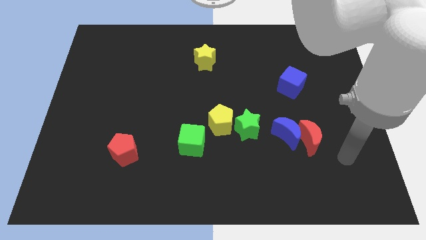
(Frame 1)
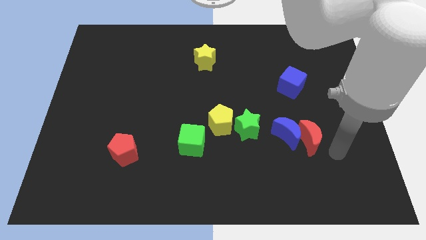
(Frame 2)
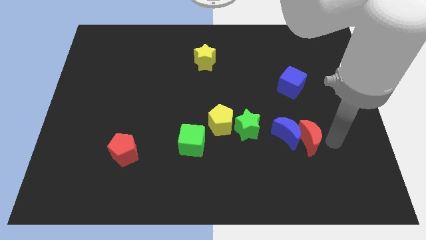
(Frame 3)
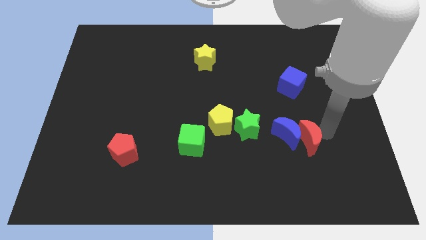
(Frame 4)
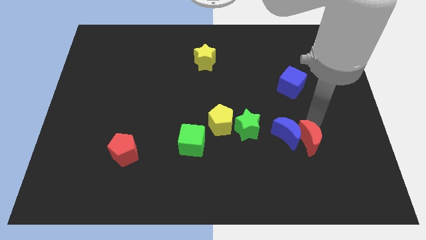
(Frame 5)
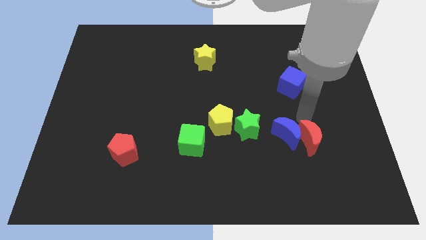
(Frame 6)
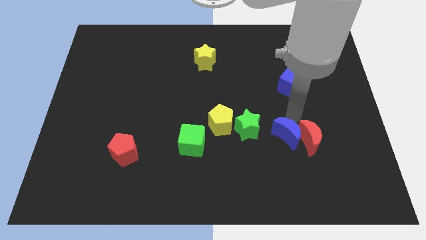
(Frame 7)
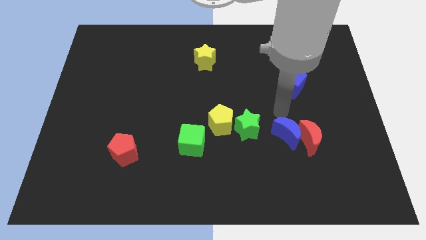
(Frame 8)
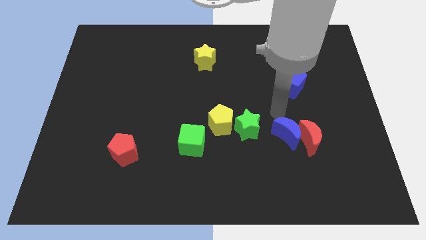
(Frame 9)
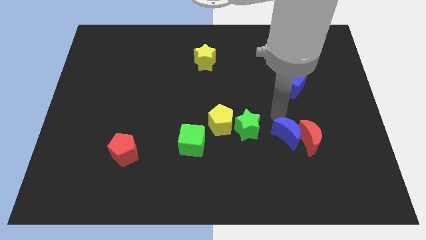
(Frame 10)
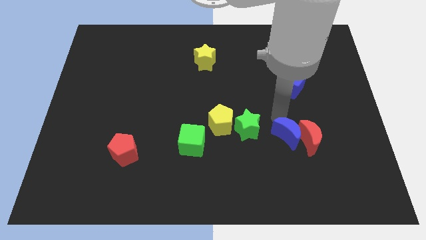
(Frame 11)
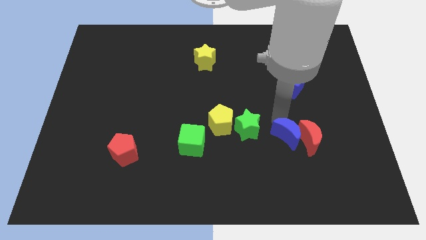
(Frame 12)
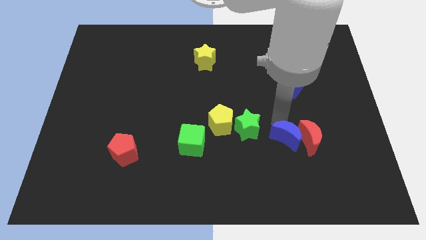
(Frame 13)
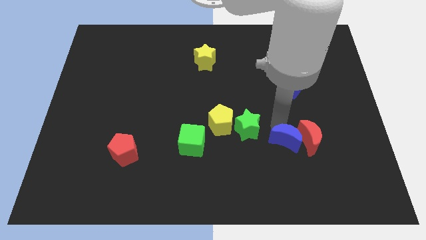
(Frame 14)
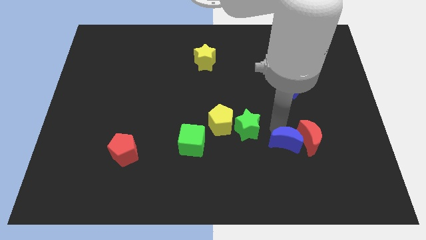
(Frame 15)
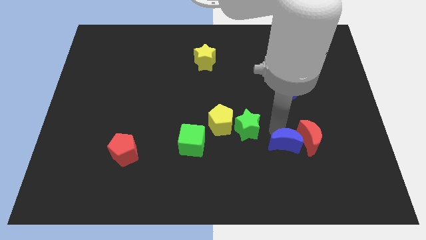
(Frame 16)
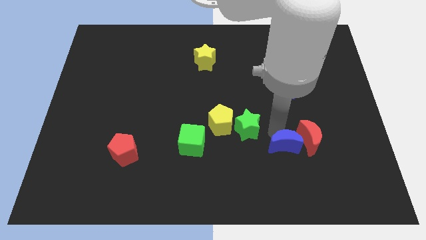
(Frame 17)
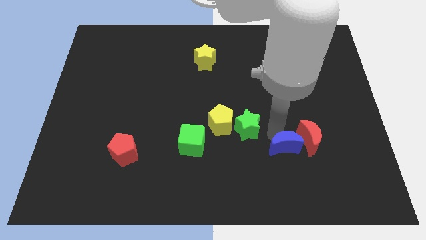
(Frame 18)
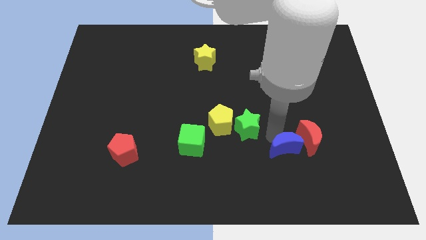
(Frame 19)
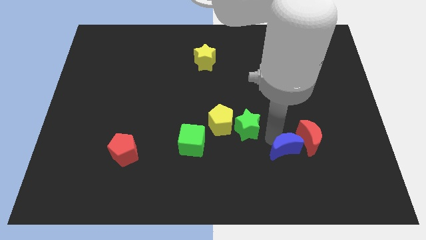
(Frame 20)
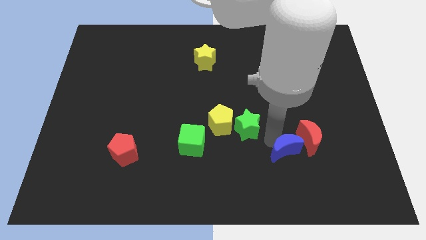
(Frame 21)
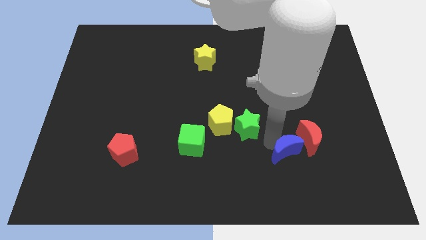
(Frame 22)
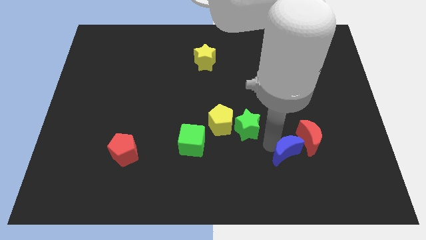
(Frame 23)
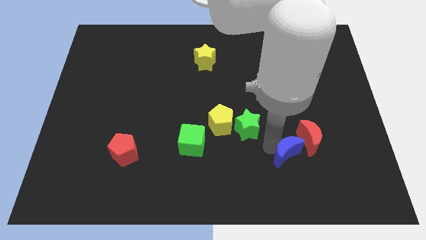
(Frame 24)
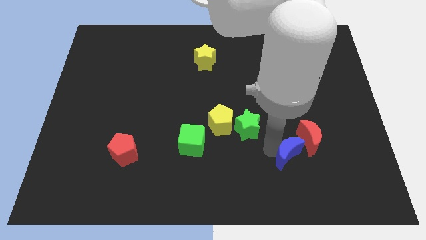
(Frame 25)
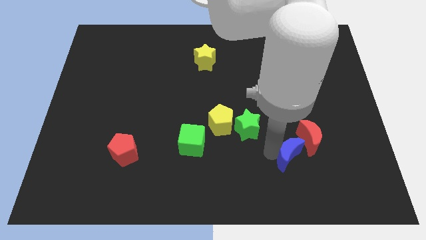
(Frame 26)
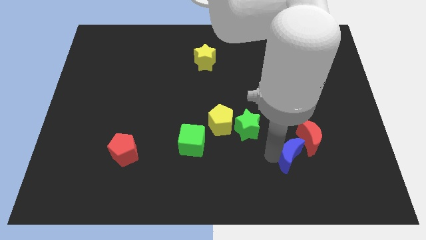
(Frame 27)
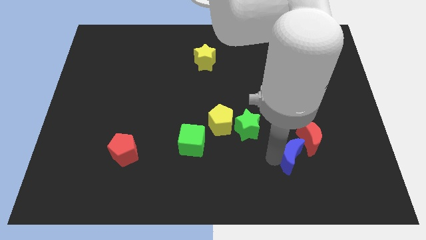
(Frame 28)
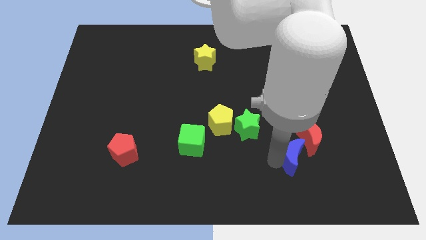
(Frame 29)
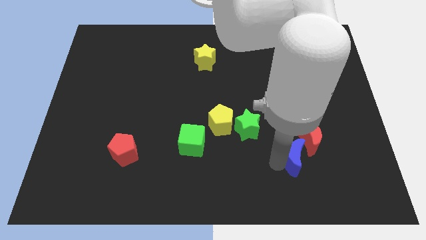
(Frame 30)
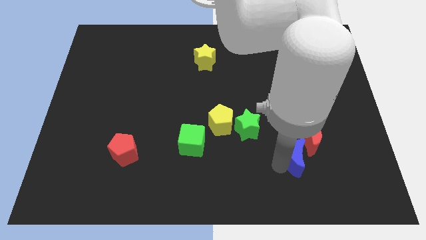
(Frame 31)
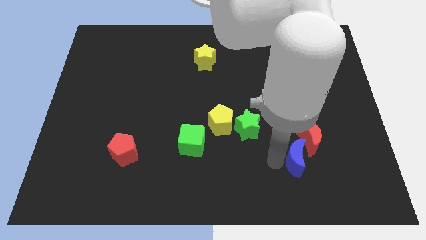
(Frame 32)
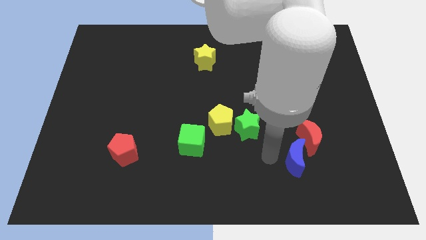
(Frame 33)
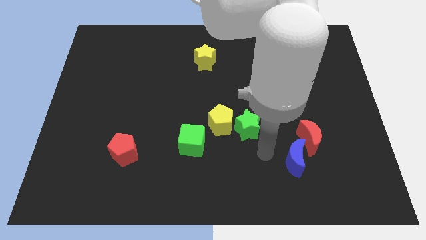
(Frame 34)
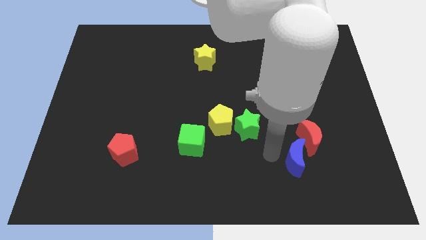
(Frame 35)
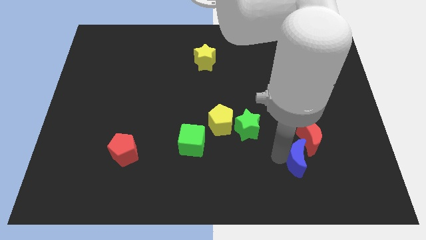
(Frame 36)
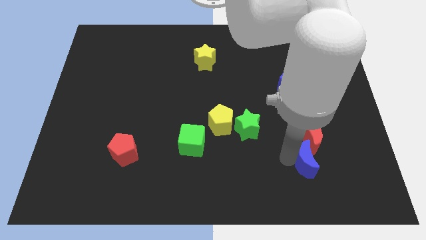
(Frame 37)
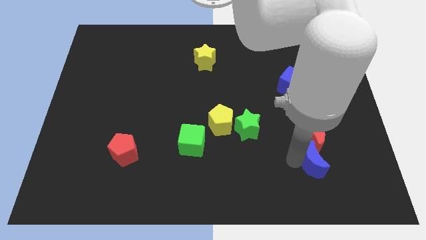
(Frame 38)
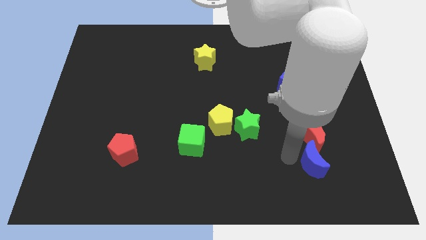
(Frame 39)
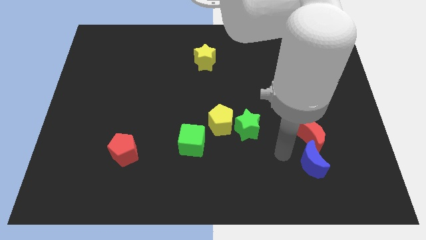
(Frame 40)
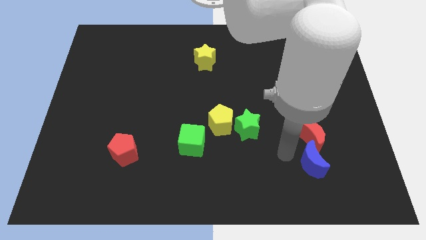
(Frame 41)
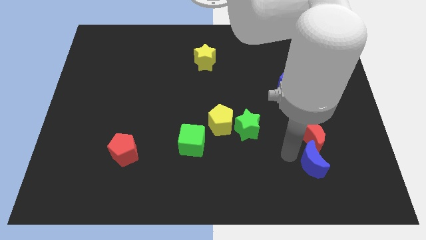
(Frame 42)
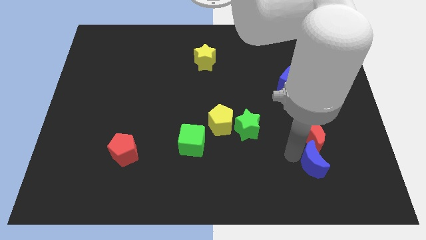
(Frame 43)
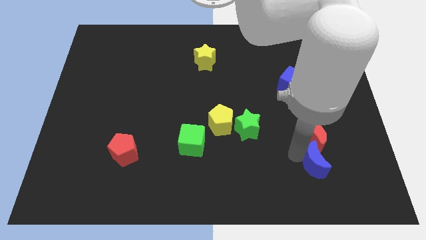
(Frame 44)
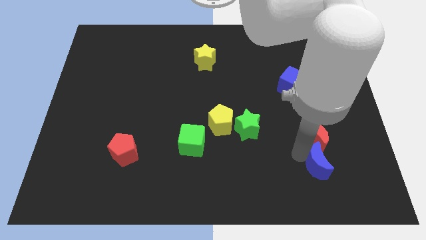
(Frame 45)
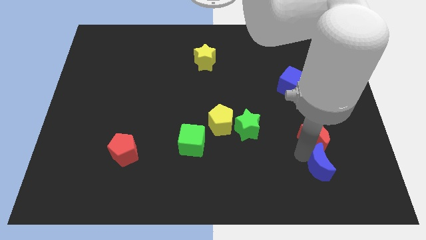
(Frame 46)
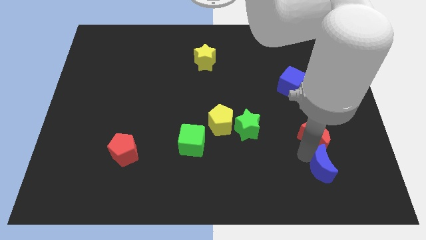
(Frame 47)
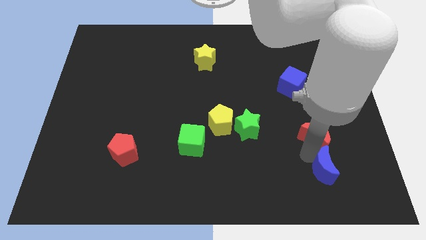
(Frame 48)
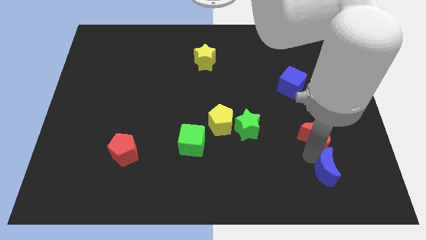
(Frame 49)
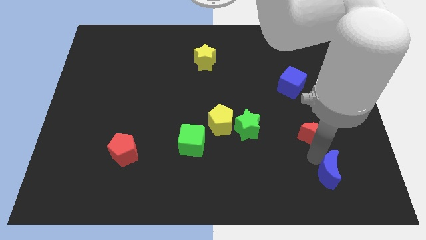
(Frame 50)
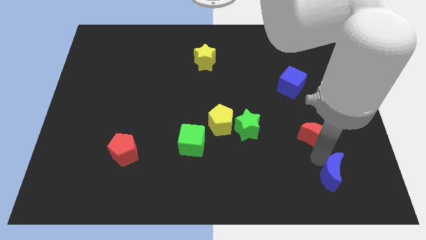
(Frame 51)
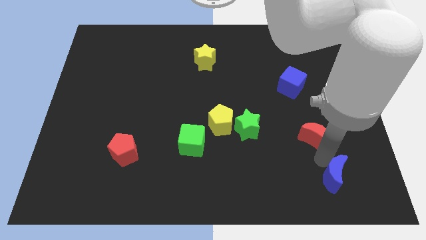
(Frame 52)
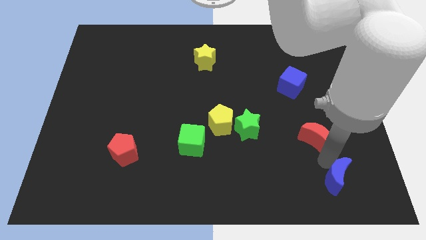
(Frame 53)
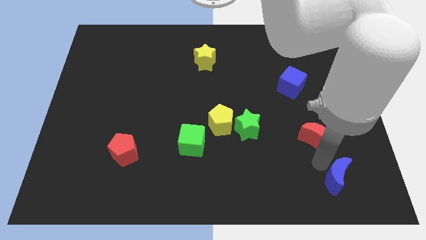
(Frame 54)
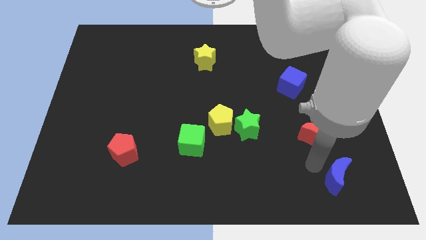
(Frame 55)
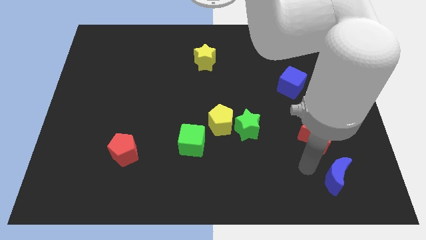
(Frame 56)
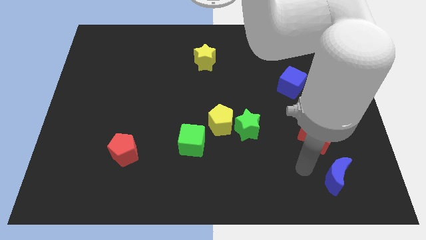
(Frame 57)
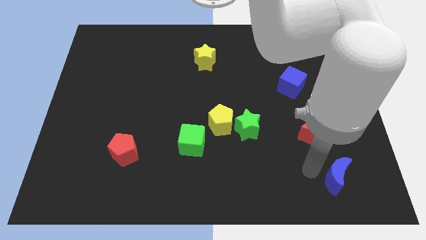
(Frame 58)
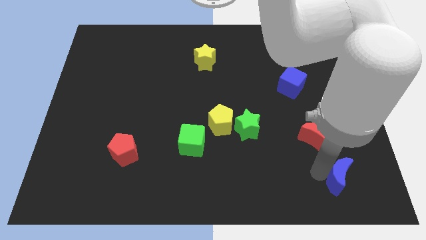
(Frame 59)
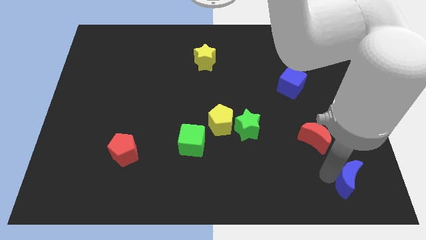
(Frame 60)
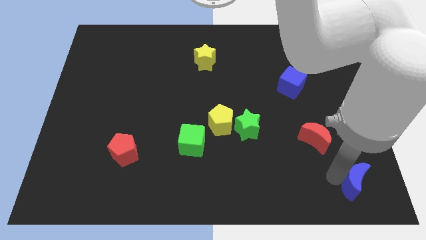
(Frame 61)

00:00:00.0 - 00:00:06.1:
move the blue moon to the bottom right corner

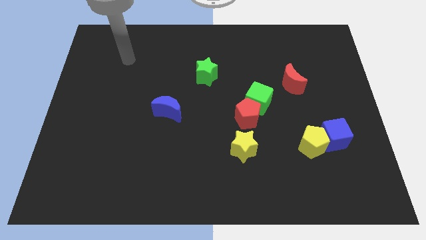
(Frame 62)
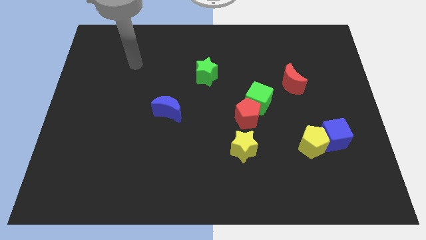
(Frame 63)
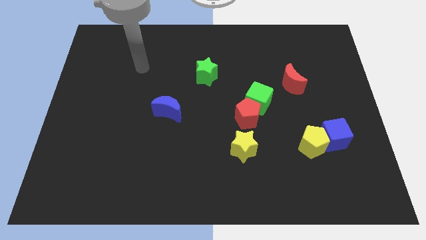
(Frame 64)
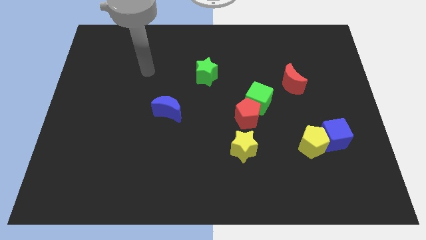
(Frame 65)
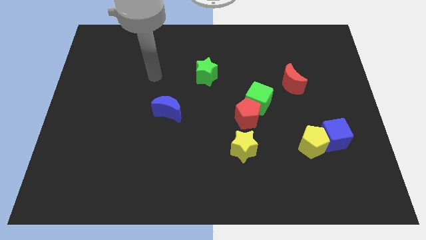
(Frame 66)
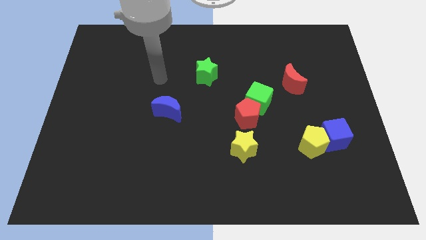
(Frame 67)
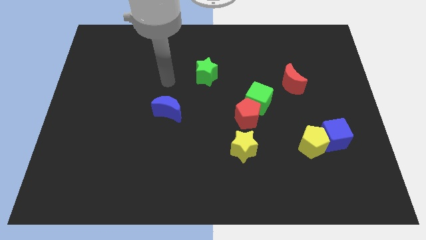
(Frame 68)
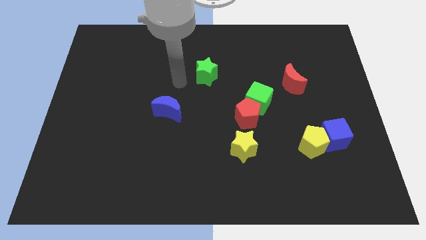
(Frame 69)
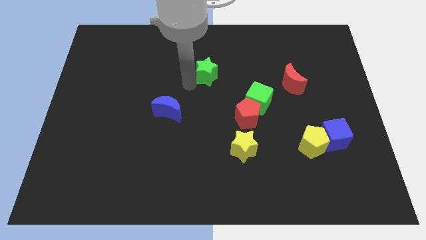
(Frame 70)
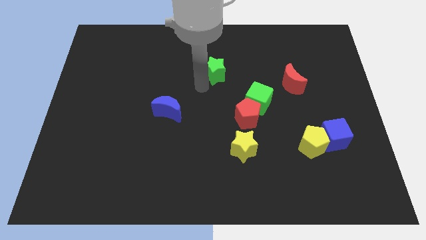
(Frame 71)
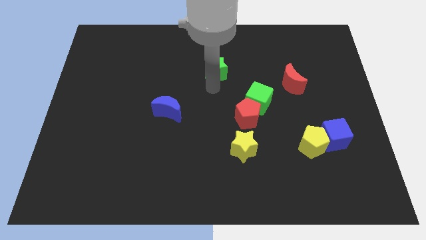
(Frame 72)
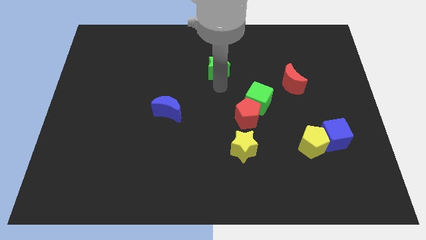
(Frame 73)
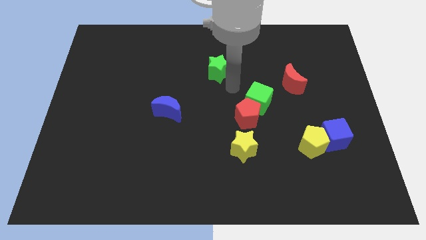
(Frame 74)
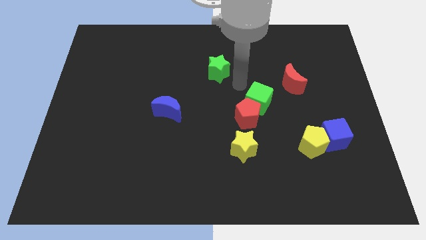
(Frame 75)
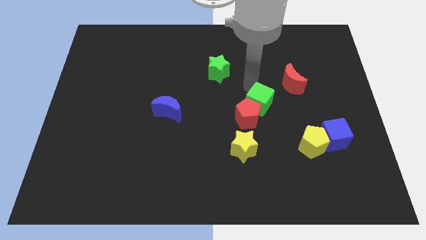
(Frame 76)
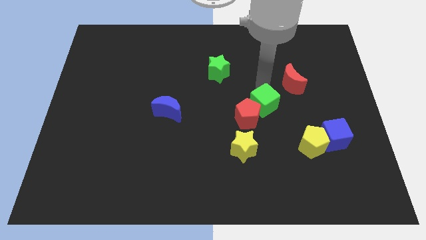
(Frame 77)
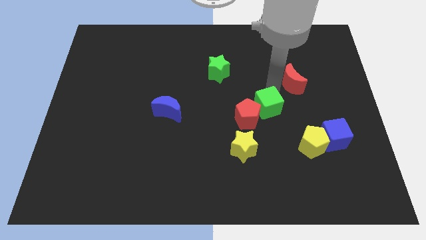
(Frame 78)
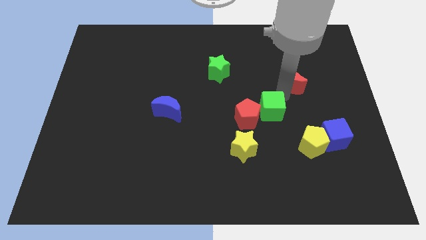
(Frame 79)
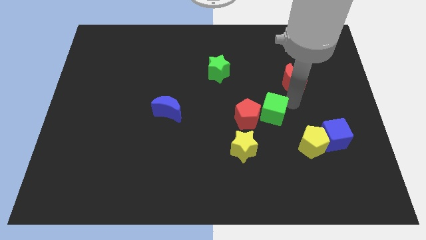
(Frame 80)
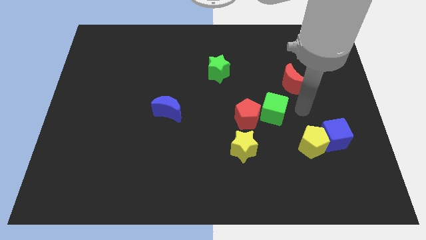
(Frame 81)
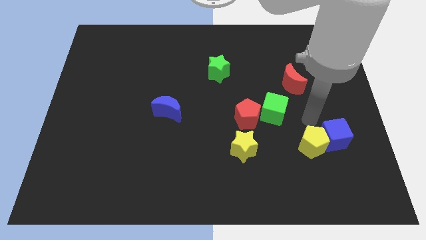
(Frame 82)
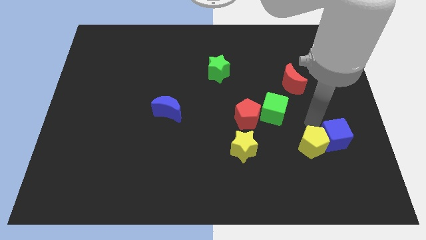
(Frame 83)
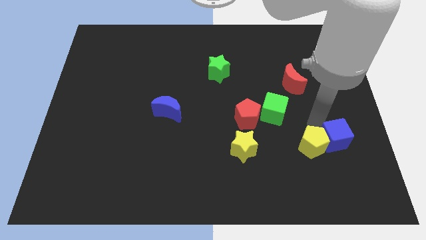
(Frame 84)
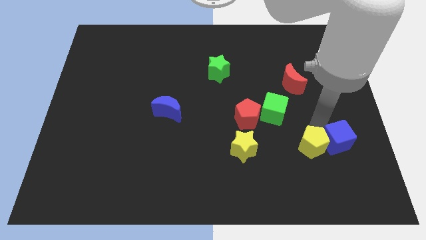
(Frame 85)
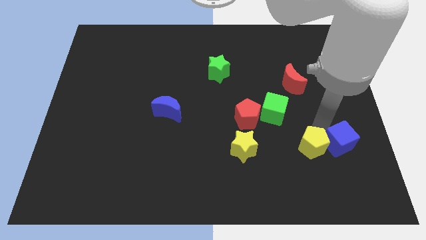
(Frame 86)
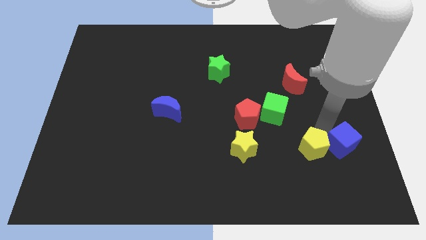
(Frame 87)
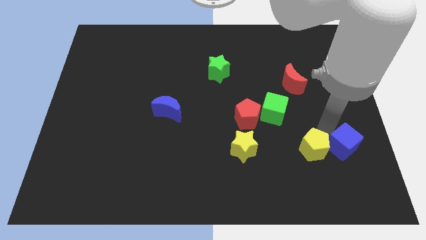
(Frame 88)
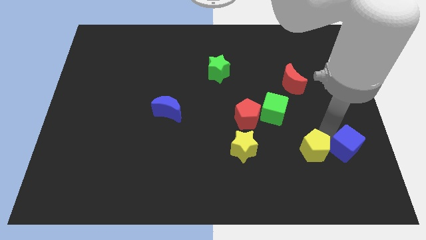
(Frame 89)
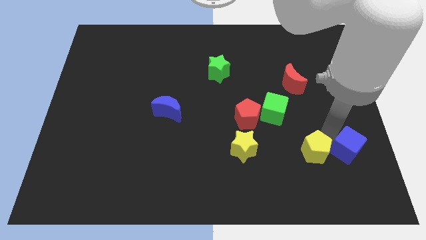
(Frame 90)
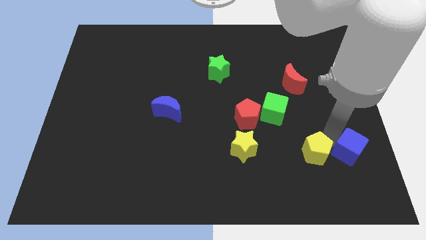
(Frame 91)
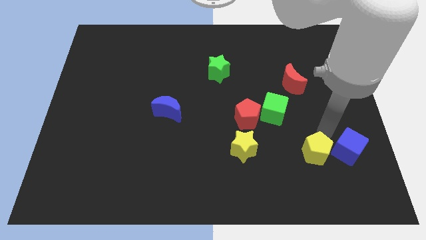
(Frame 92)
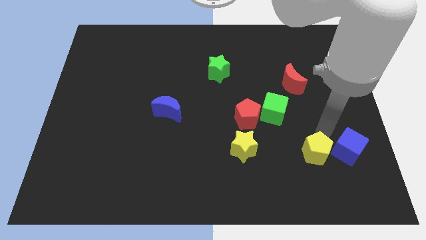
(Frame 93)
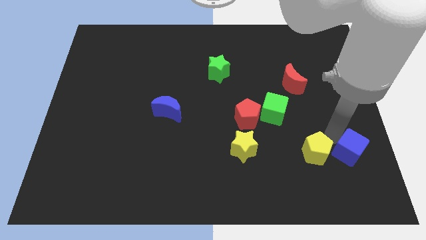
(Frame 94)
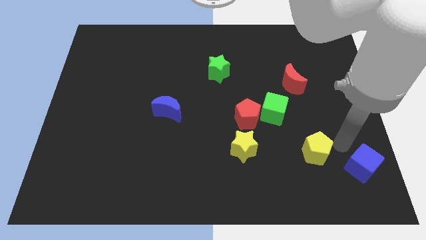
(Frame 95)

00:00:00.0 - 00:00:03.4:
put the blue cube to the lower right corner
